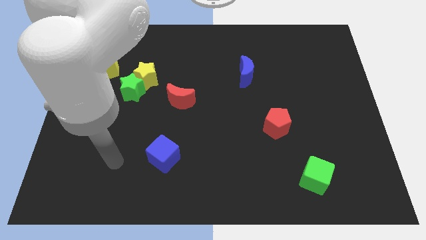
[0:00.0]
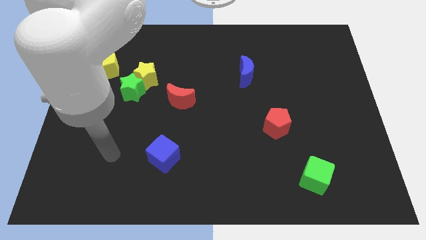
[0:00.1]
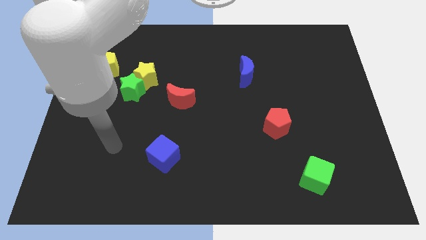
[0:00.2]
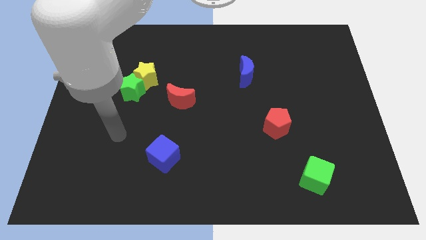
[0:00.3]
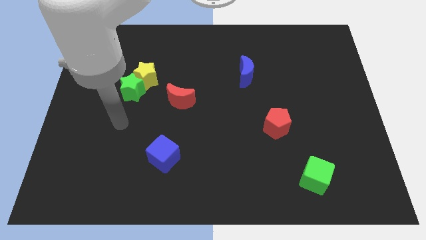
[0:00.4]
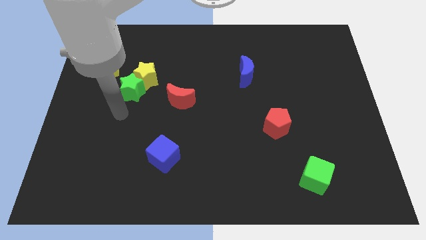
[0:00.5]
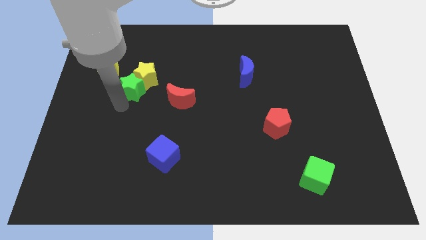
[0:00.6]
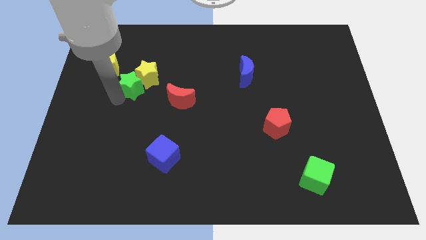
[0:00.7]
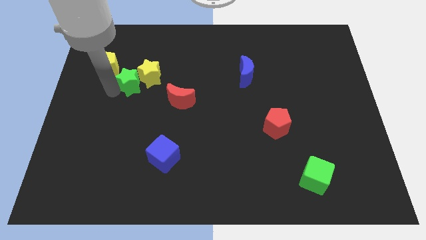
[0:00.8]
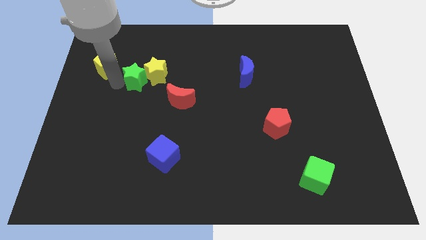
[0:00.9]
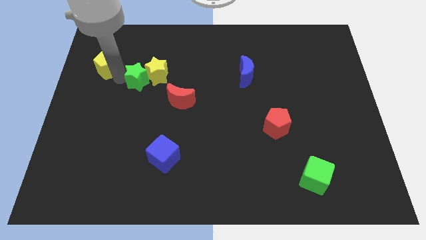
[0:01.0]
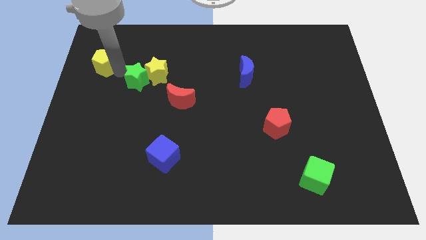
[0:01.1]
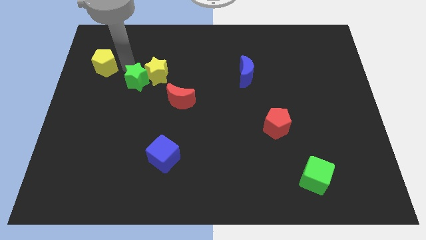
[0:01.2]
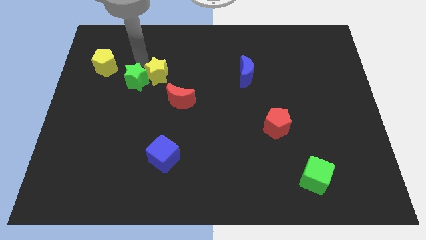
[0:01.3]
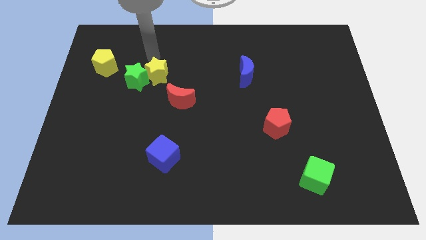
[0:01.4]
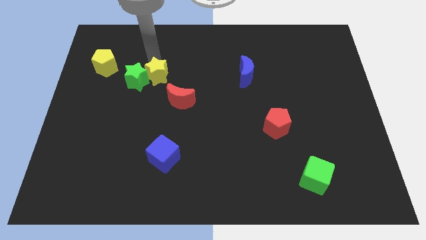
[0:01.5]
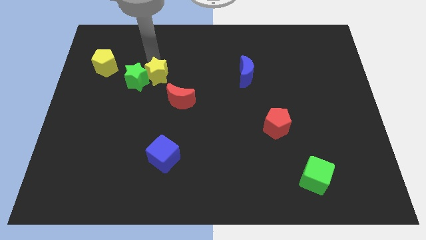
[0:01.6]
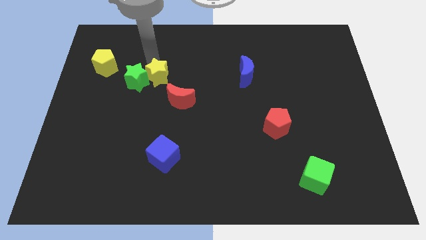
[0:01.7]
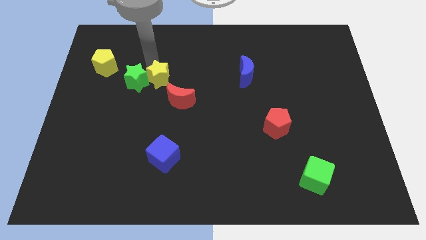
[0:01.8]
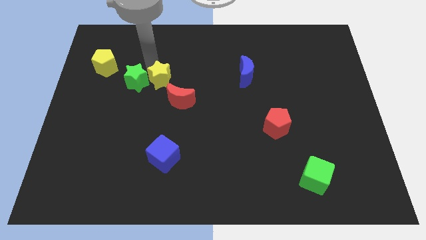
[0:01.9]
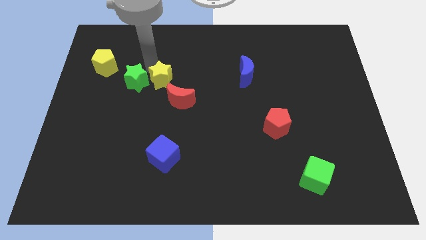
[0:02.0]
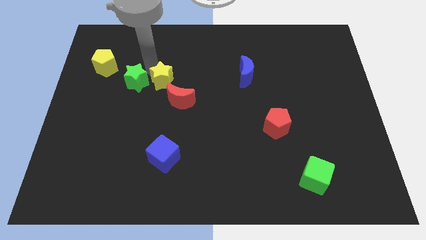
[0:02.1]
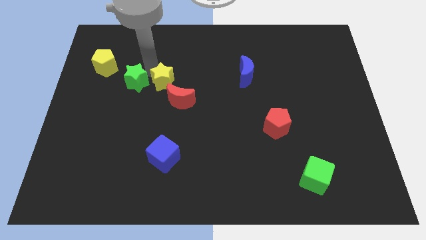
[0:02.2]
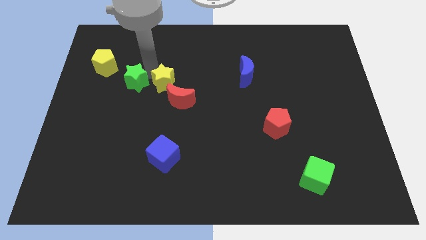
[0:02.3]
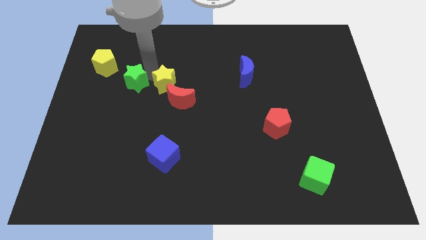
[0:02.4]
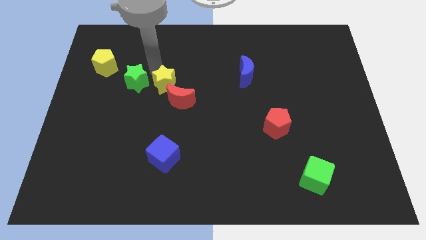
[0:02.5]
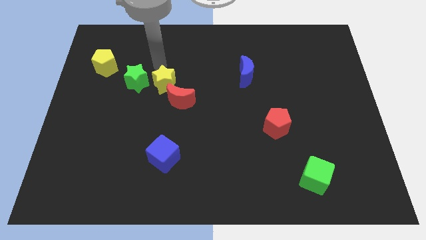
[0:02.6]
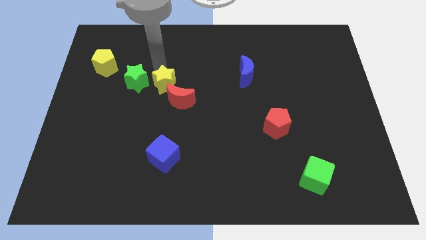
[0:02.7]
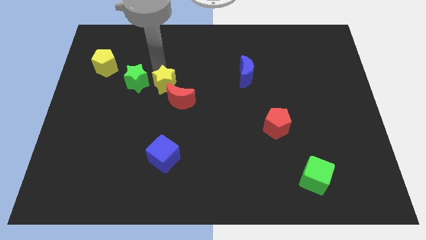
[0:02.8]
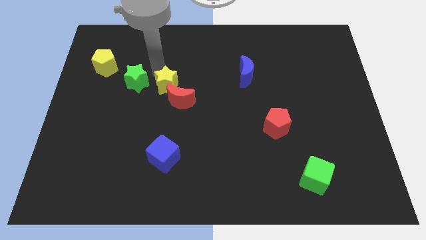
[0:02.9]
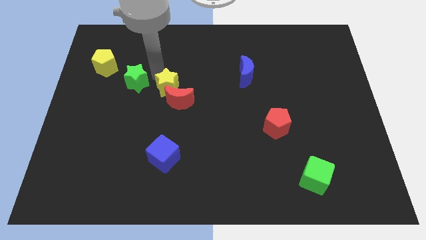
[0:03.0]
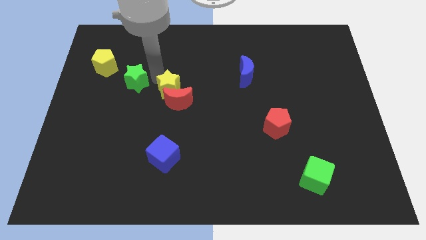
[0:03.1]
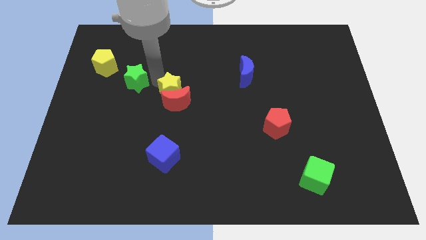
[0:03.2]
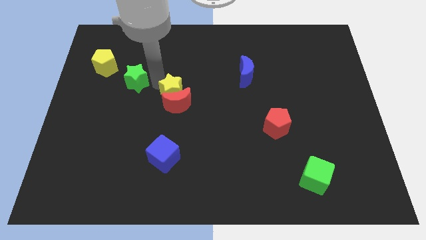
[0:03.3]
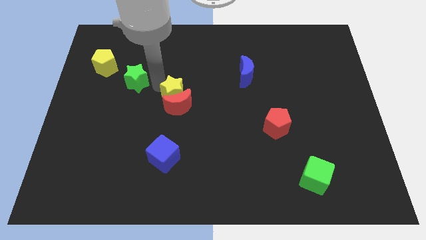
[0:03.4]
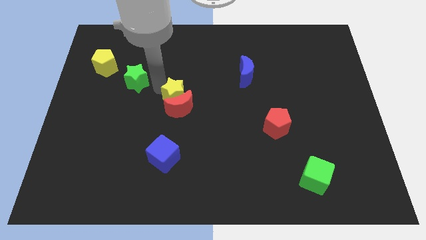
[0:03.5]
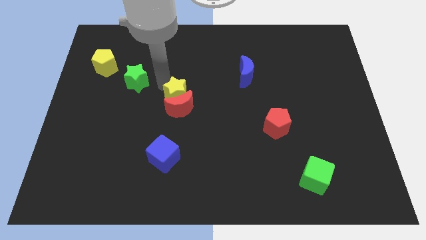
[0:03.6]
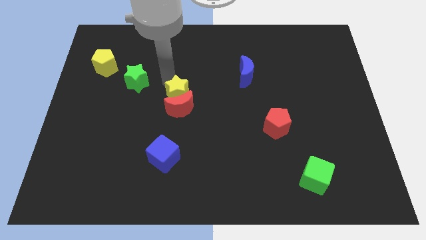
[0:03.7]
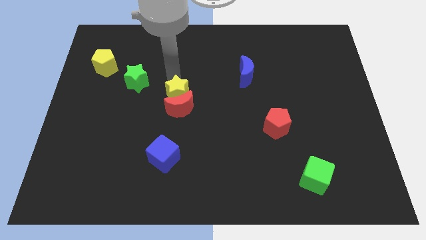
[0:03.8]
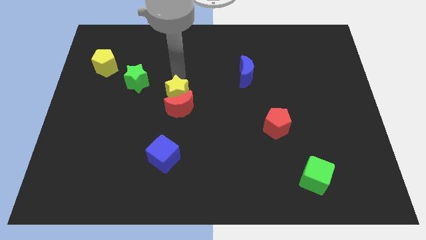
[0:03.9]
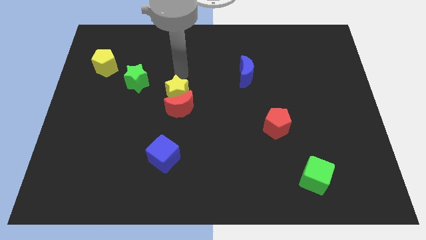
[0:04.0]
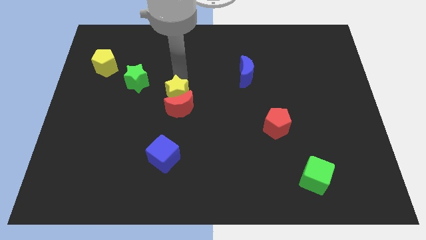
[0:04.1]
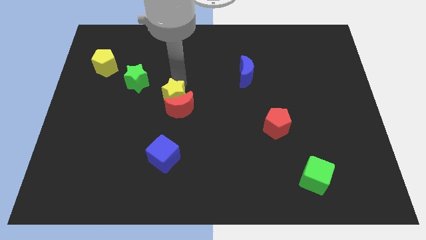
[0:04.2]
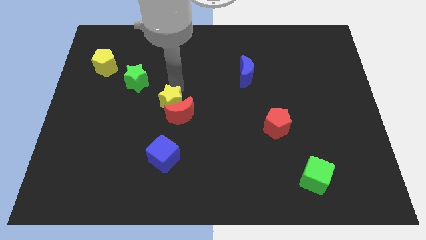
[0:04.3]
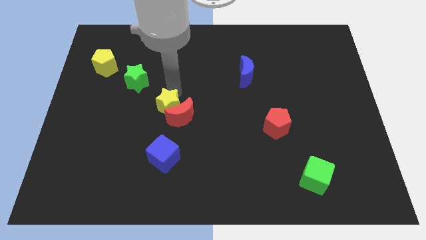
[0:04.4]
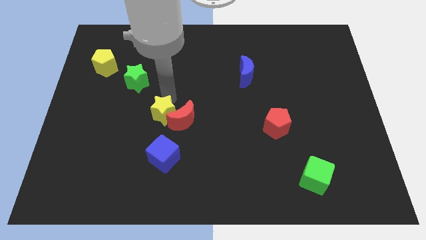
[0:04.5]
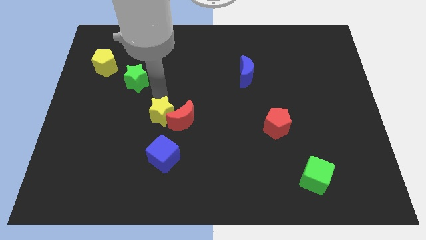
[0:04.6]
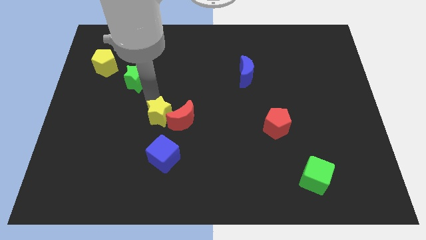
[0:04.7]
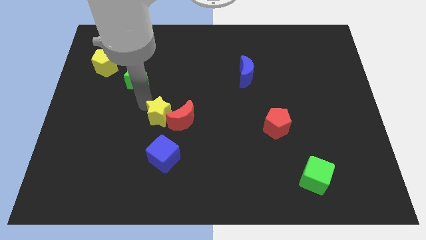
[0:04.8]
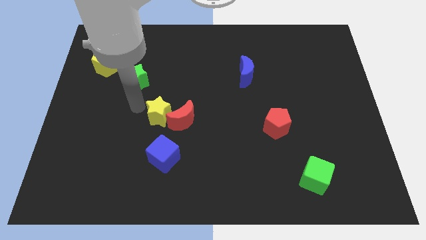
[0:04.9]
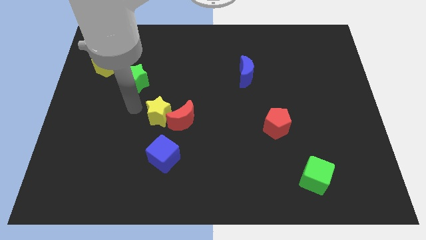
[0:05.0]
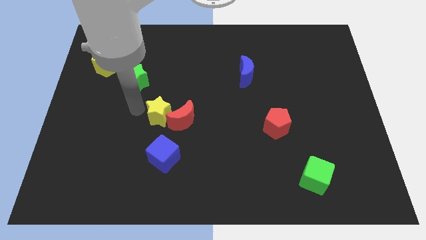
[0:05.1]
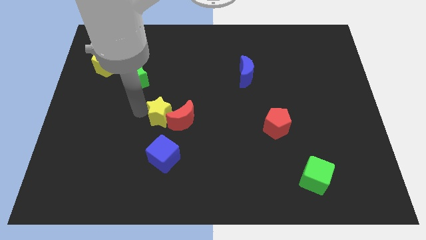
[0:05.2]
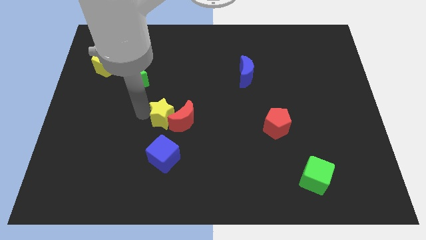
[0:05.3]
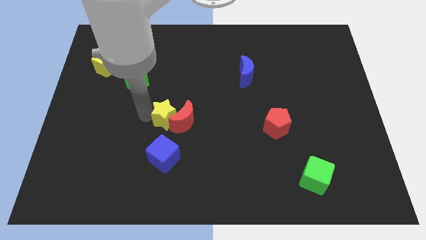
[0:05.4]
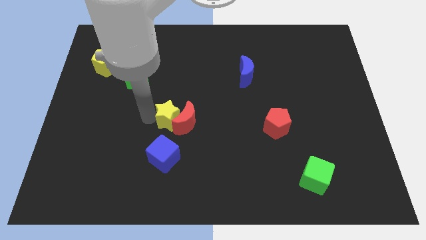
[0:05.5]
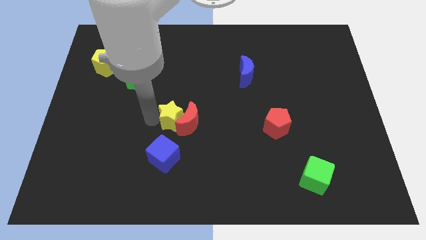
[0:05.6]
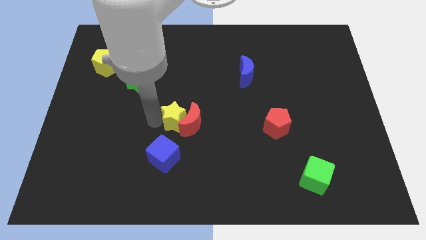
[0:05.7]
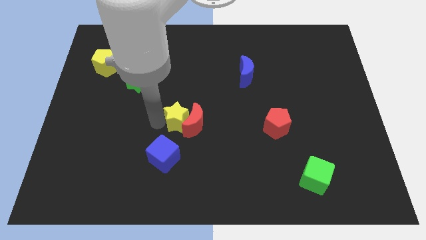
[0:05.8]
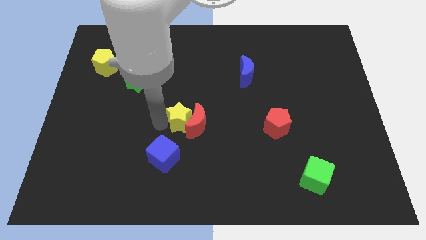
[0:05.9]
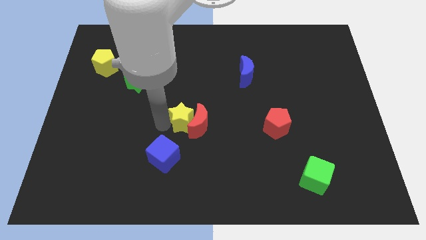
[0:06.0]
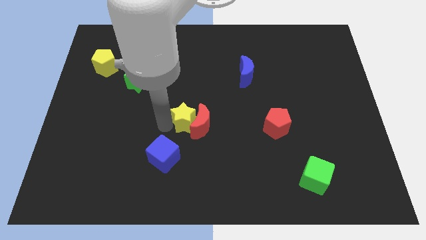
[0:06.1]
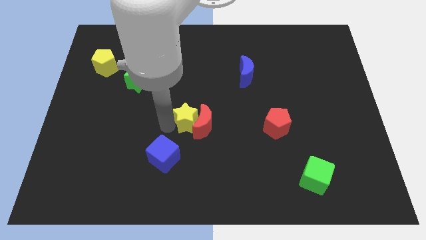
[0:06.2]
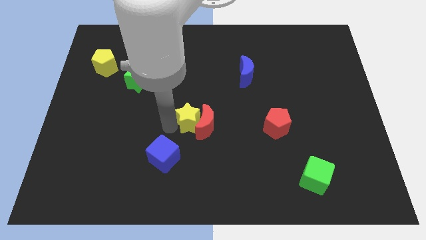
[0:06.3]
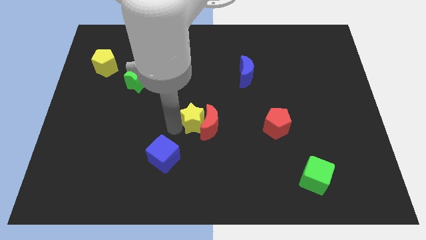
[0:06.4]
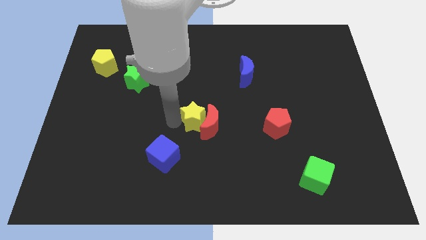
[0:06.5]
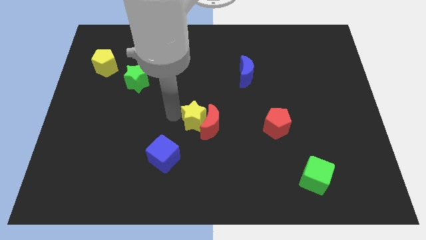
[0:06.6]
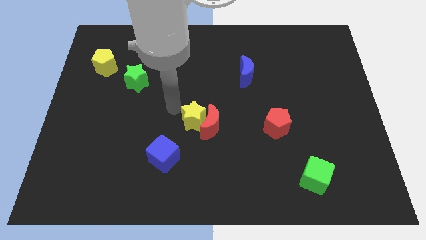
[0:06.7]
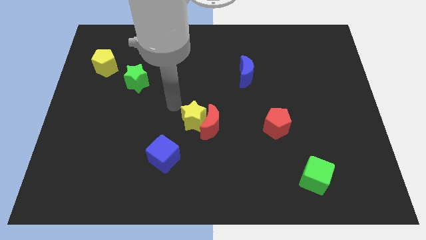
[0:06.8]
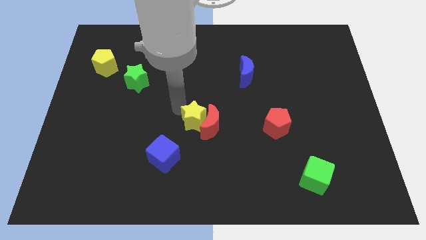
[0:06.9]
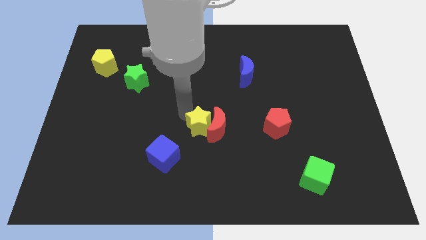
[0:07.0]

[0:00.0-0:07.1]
push the yellow star diagonally down and right

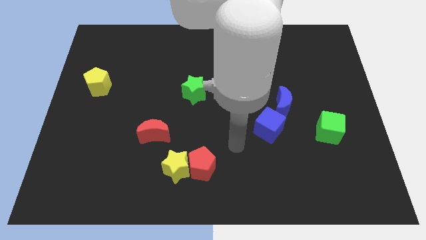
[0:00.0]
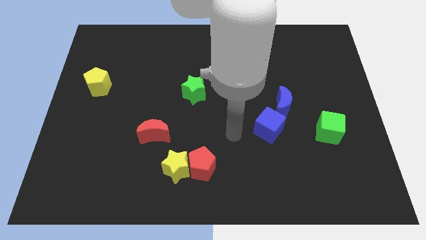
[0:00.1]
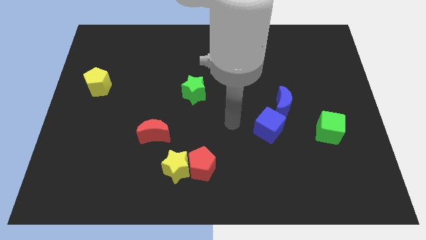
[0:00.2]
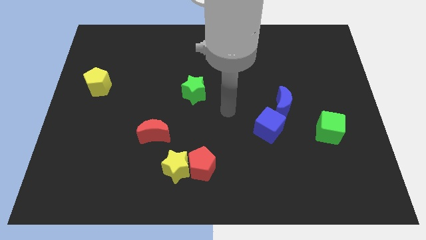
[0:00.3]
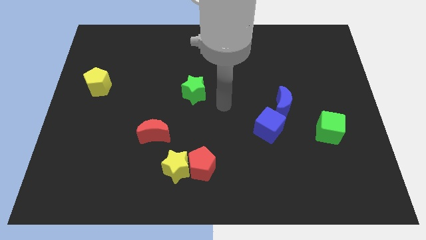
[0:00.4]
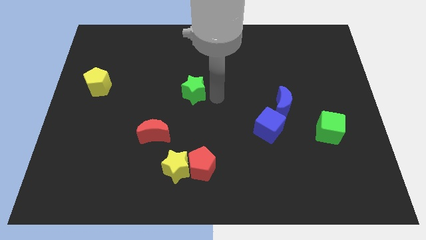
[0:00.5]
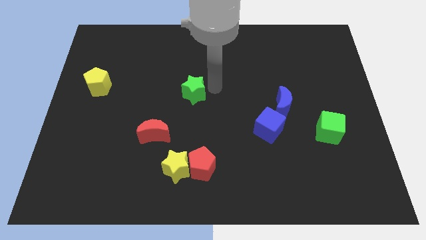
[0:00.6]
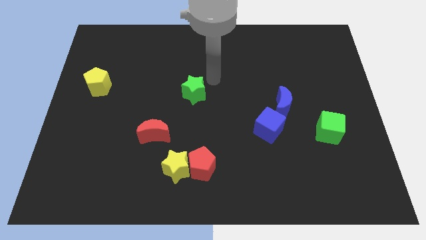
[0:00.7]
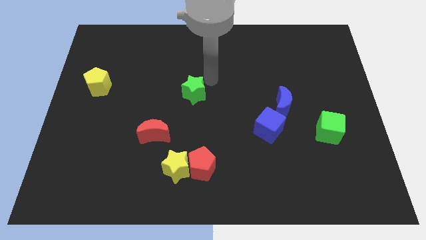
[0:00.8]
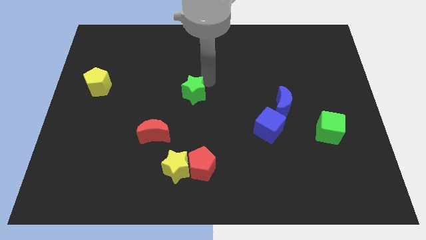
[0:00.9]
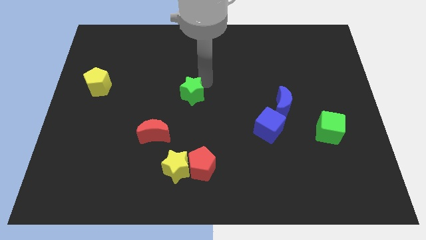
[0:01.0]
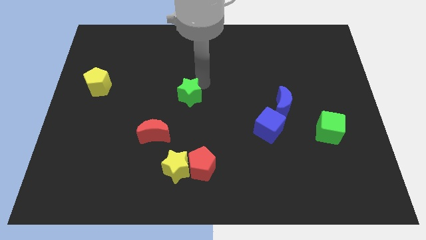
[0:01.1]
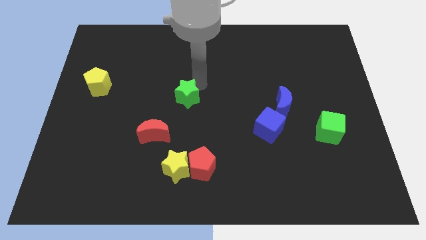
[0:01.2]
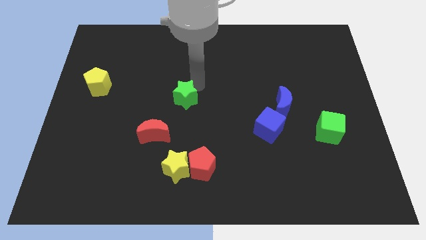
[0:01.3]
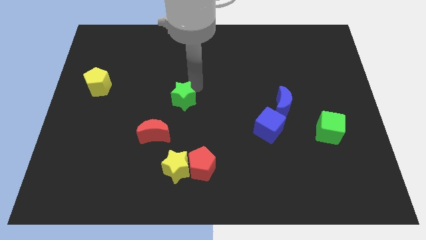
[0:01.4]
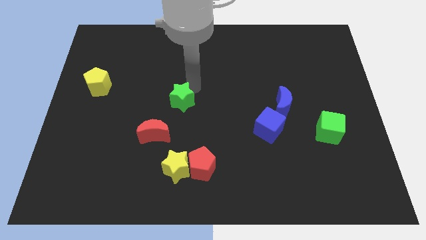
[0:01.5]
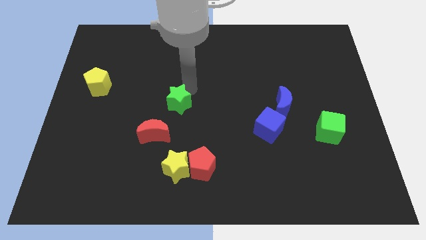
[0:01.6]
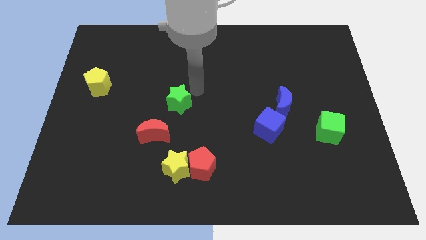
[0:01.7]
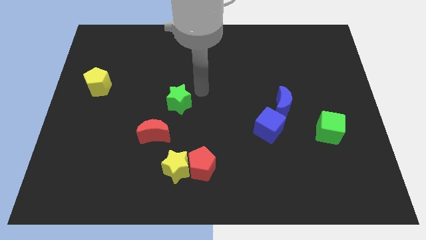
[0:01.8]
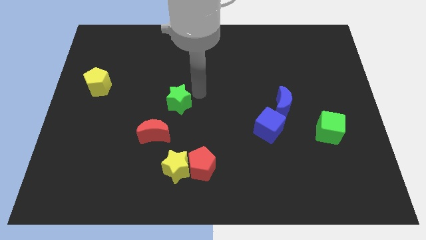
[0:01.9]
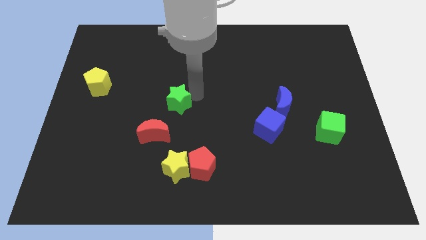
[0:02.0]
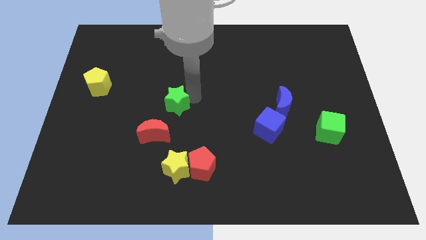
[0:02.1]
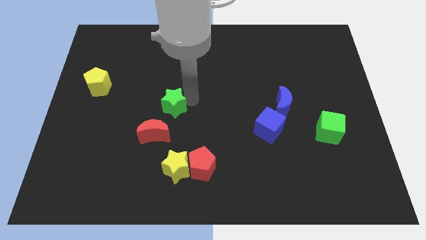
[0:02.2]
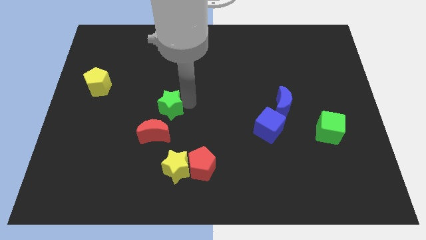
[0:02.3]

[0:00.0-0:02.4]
slightly slide the green star diagonally downwards and to the left
